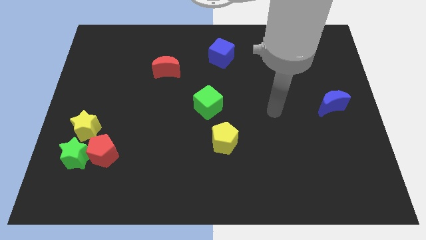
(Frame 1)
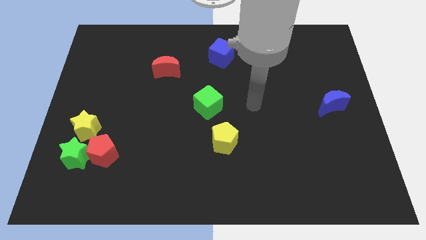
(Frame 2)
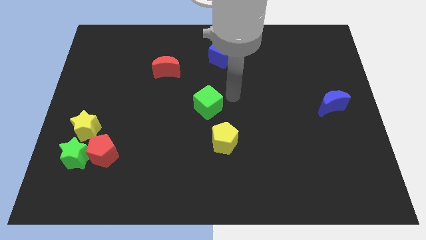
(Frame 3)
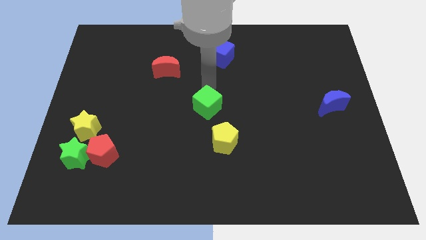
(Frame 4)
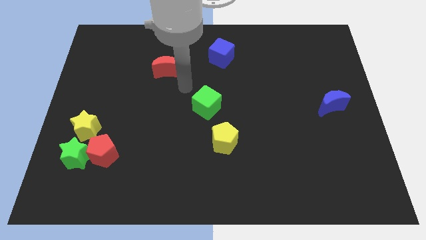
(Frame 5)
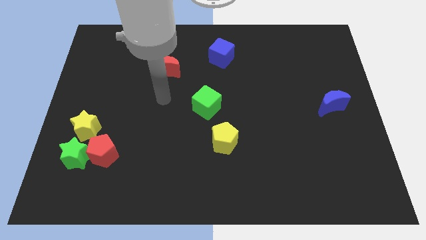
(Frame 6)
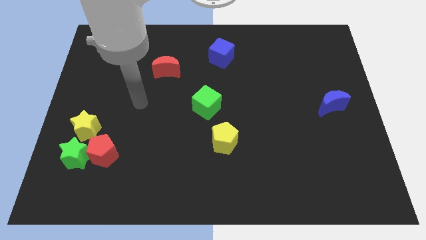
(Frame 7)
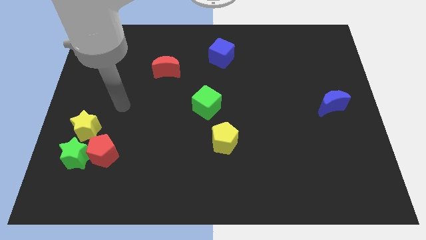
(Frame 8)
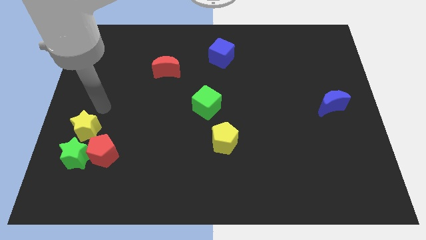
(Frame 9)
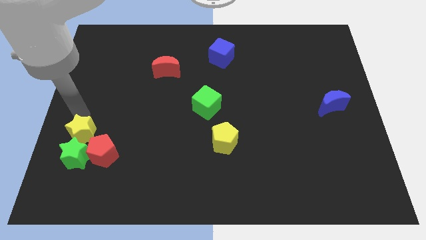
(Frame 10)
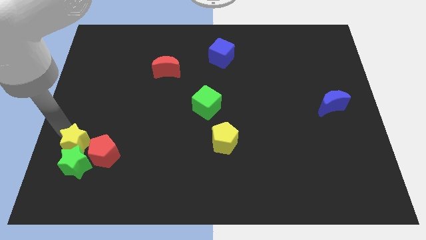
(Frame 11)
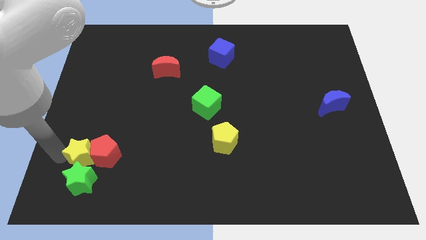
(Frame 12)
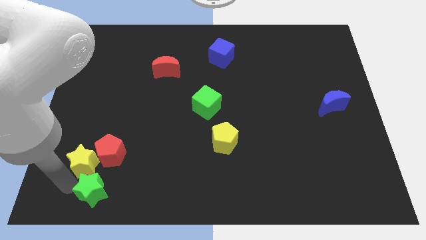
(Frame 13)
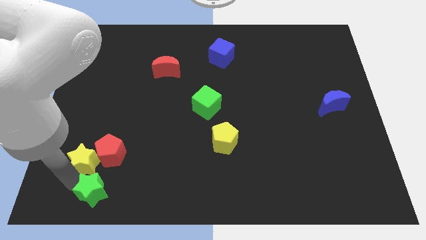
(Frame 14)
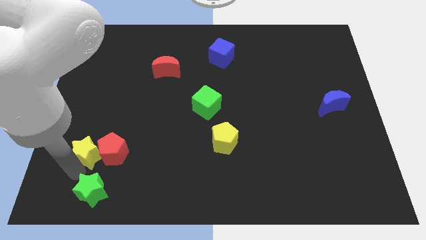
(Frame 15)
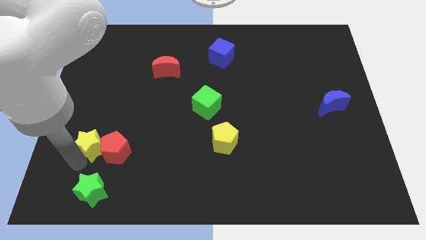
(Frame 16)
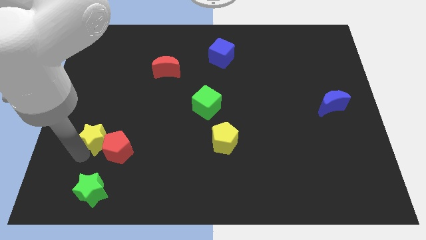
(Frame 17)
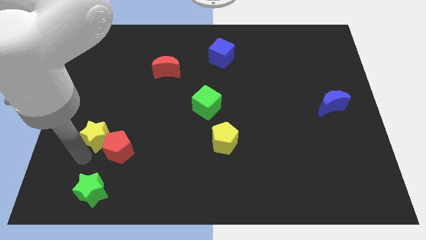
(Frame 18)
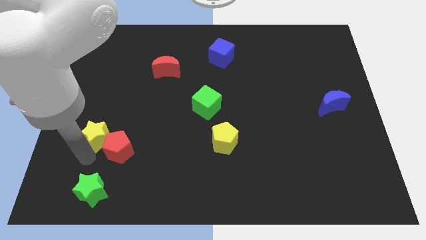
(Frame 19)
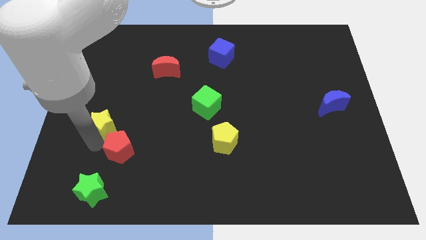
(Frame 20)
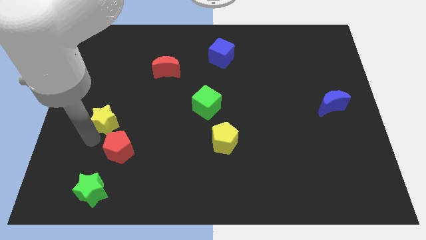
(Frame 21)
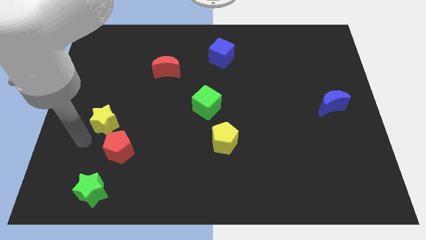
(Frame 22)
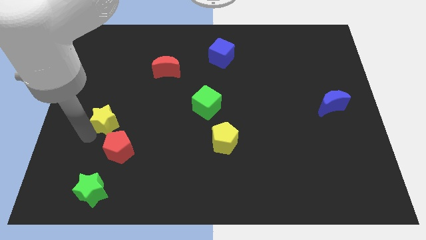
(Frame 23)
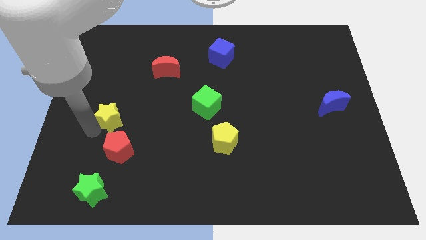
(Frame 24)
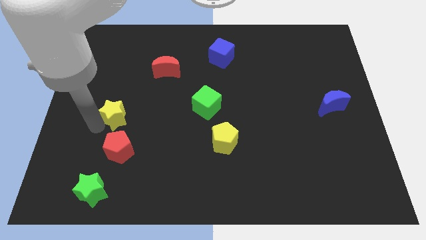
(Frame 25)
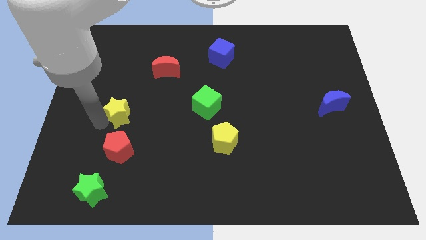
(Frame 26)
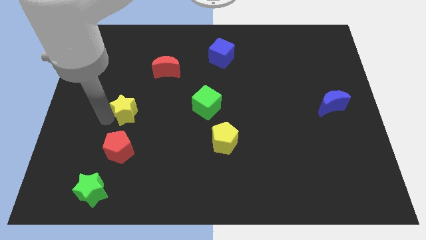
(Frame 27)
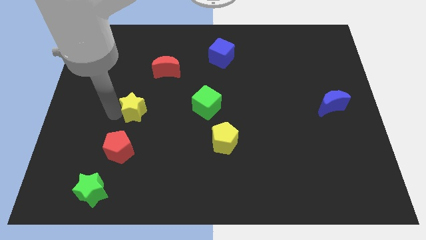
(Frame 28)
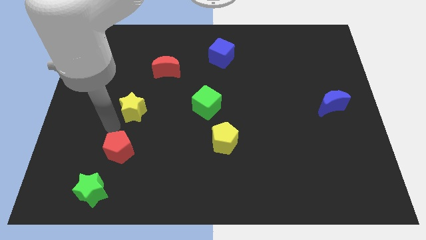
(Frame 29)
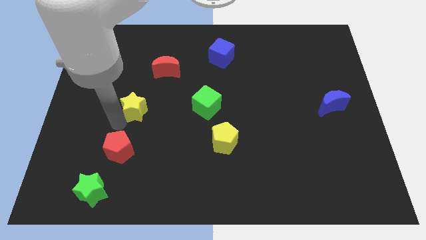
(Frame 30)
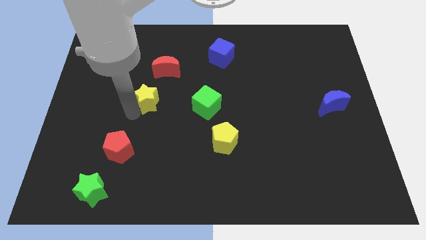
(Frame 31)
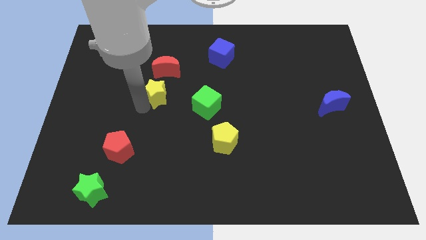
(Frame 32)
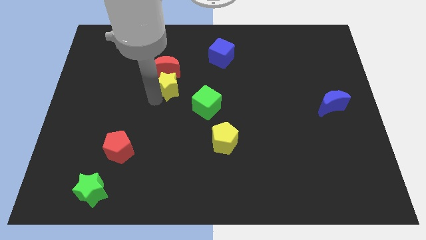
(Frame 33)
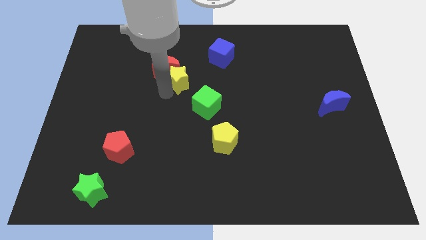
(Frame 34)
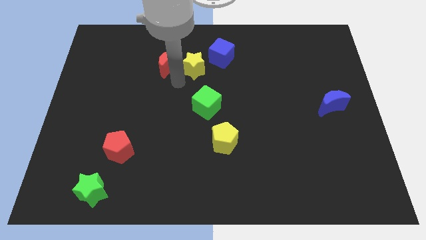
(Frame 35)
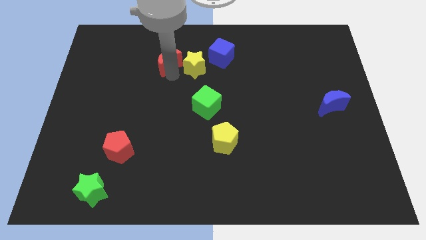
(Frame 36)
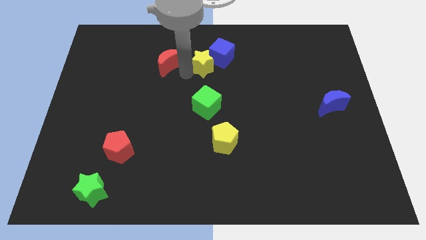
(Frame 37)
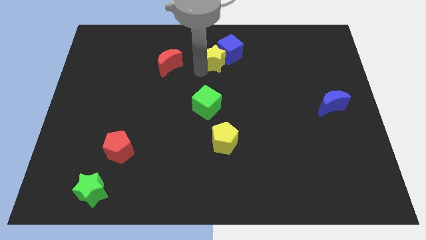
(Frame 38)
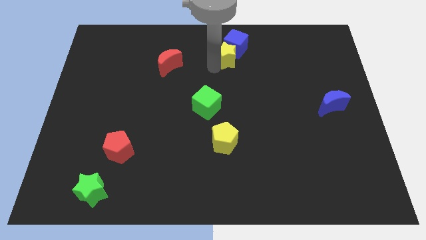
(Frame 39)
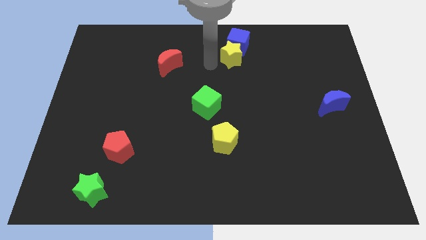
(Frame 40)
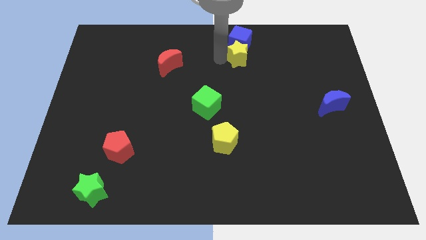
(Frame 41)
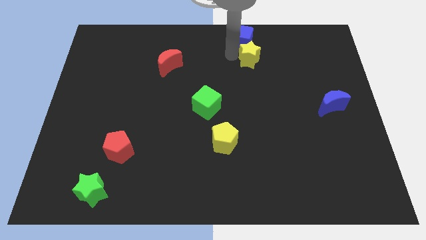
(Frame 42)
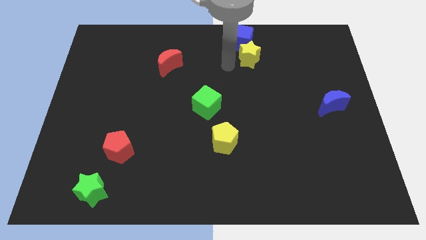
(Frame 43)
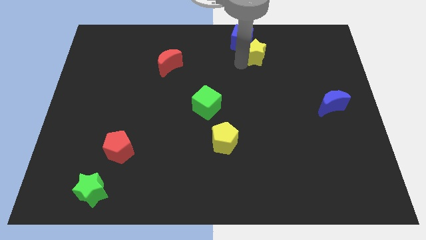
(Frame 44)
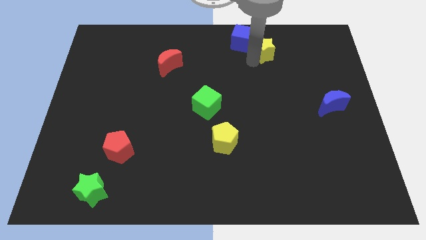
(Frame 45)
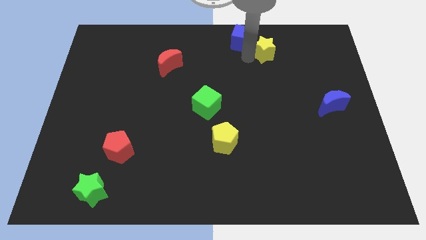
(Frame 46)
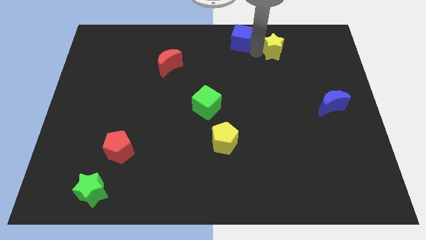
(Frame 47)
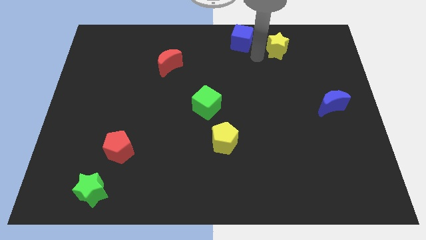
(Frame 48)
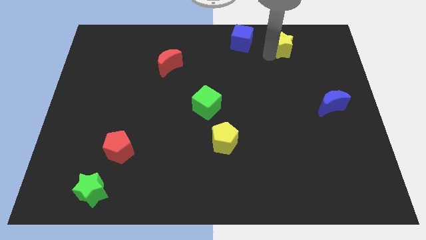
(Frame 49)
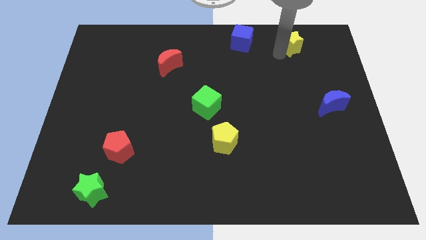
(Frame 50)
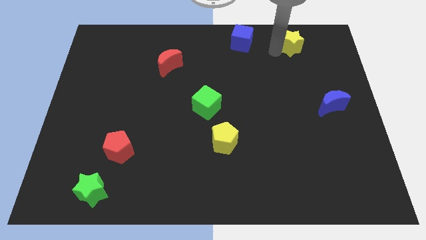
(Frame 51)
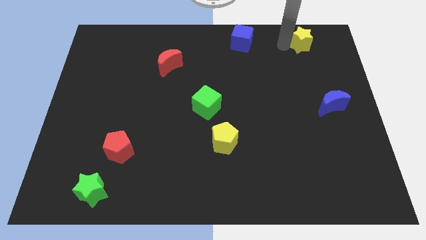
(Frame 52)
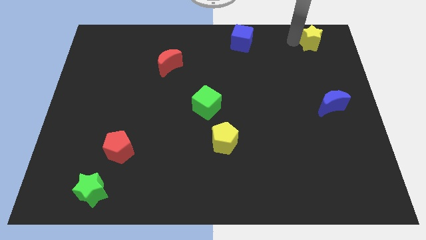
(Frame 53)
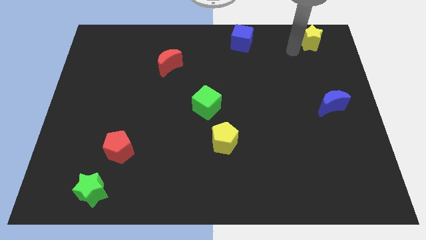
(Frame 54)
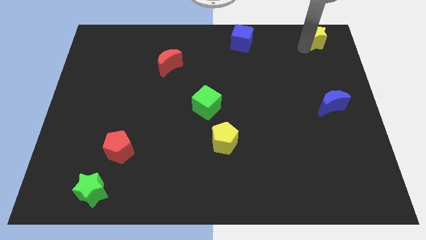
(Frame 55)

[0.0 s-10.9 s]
put the yellow star to the top right corner

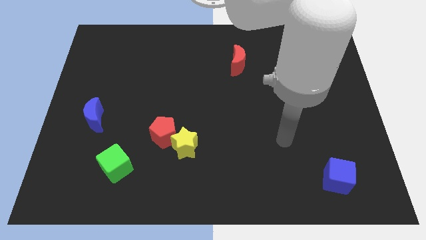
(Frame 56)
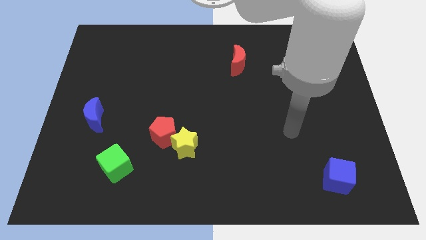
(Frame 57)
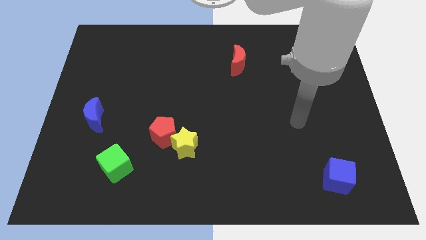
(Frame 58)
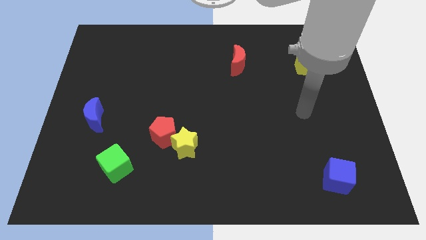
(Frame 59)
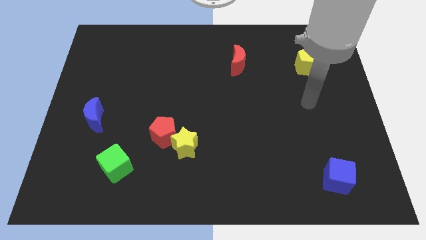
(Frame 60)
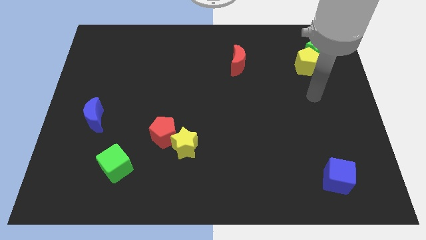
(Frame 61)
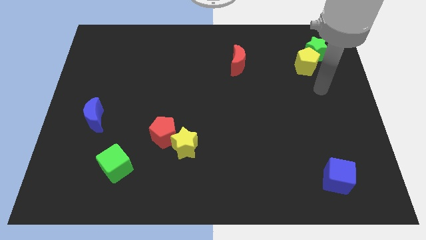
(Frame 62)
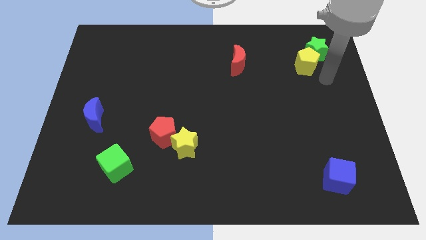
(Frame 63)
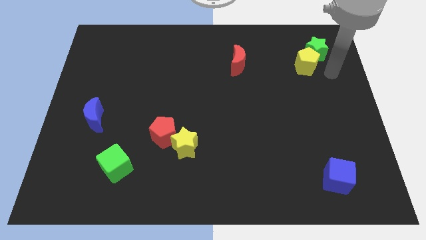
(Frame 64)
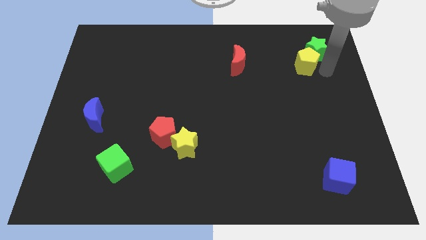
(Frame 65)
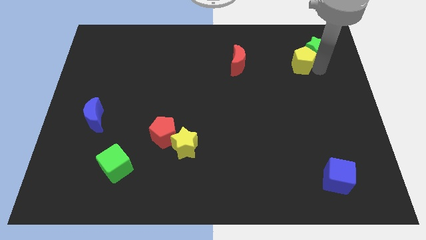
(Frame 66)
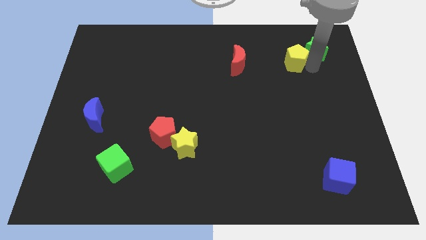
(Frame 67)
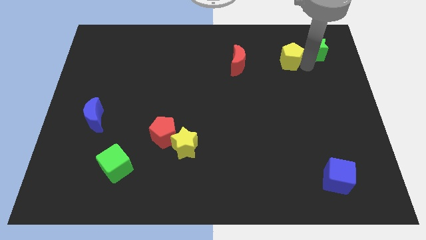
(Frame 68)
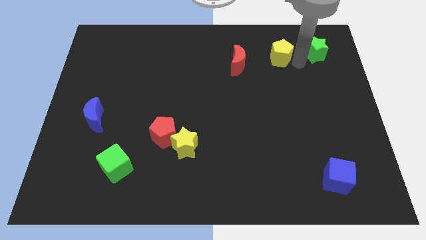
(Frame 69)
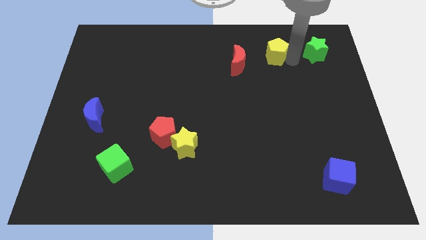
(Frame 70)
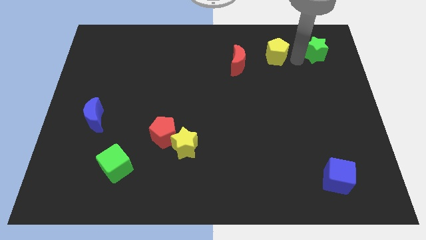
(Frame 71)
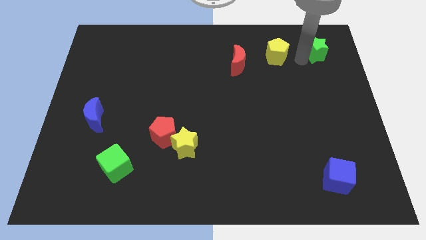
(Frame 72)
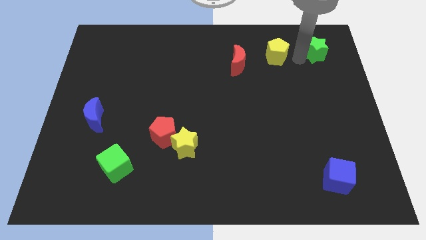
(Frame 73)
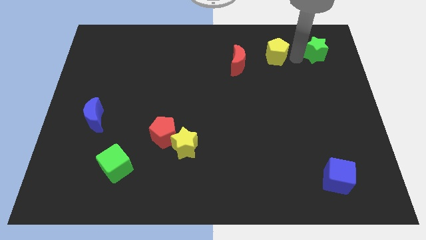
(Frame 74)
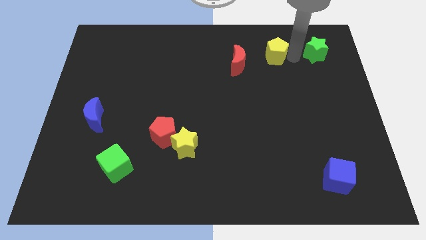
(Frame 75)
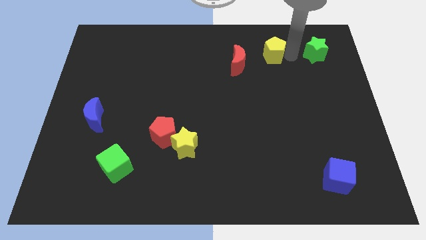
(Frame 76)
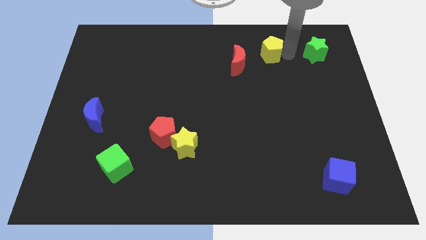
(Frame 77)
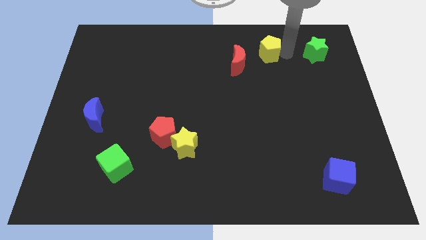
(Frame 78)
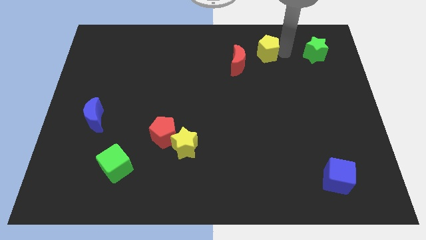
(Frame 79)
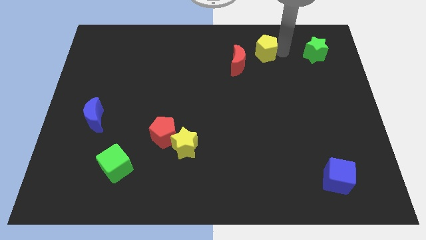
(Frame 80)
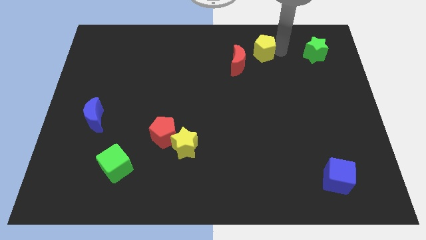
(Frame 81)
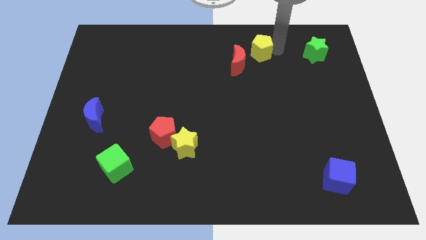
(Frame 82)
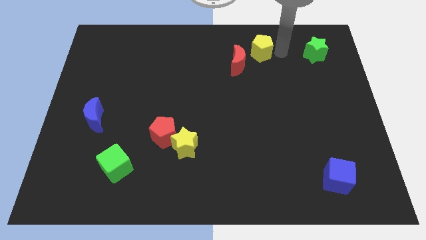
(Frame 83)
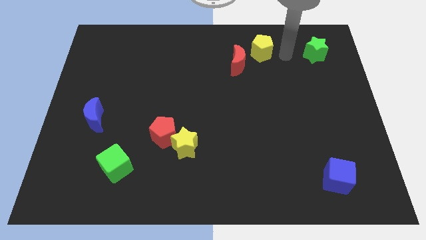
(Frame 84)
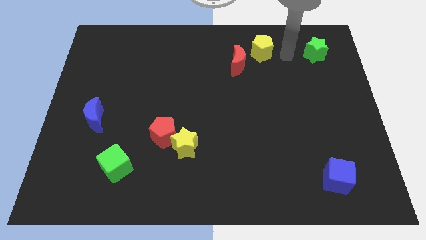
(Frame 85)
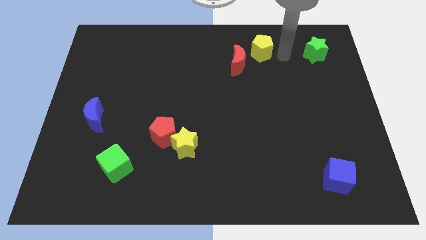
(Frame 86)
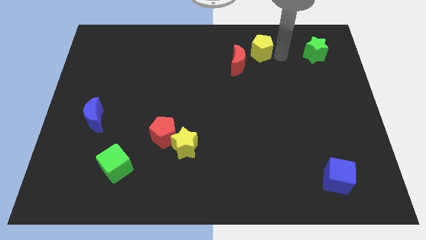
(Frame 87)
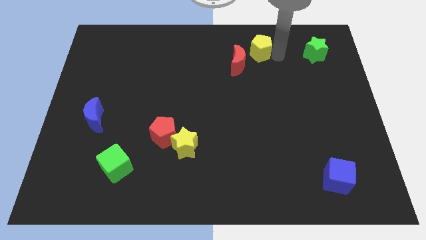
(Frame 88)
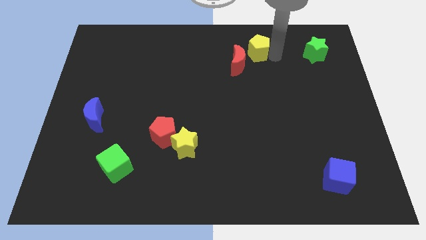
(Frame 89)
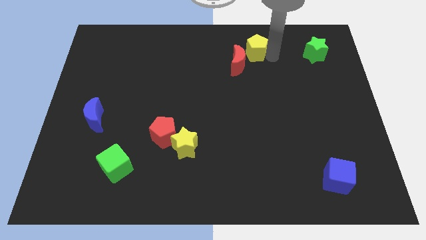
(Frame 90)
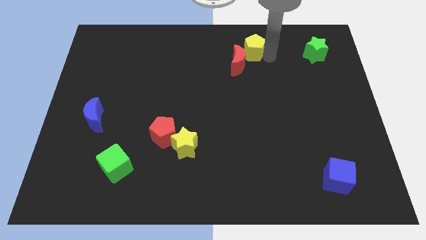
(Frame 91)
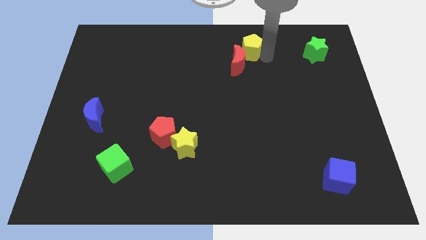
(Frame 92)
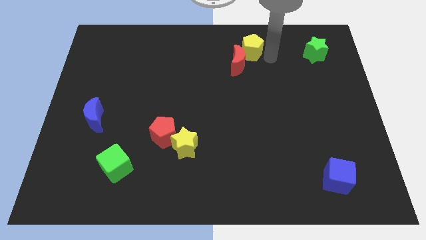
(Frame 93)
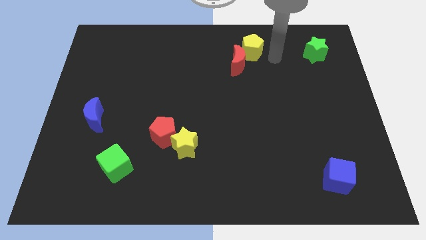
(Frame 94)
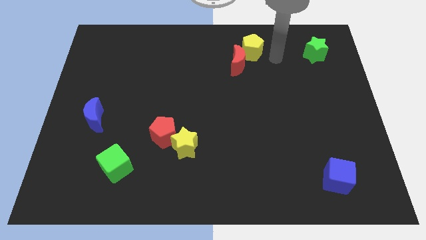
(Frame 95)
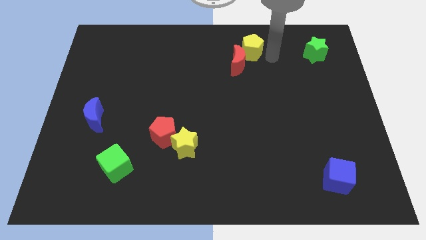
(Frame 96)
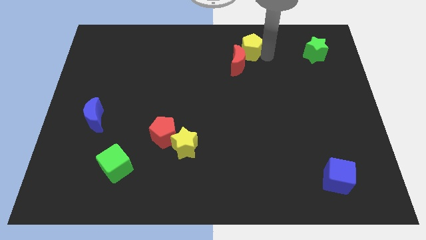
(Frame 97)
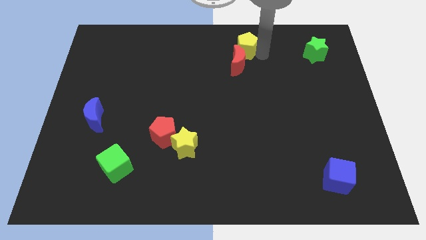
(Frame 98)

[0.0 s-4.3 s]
slide the yellow pentagon to the top side
